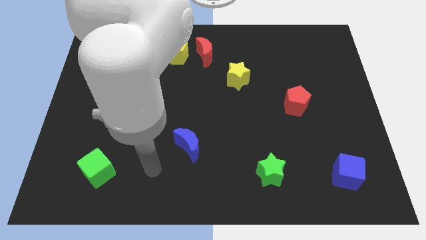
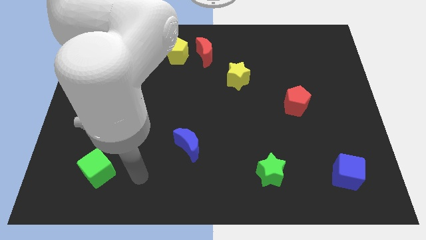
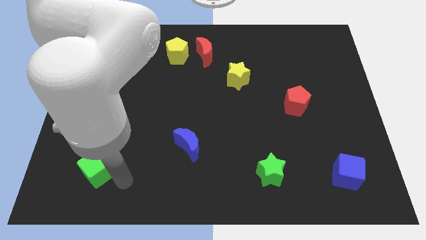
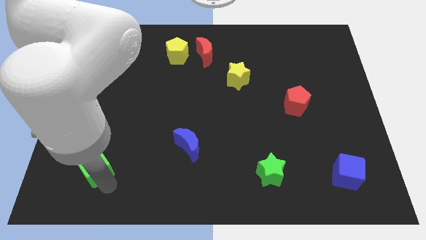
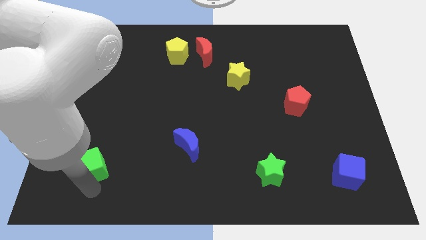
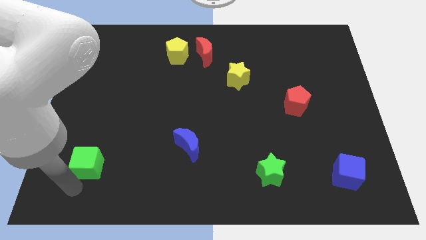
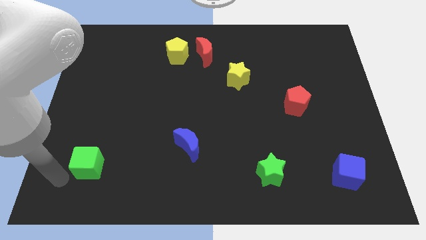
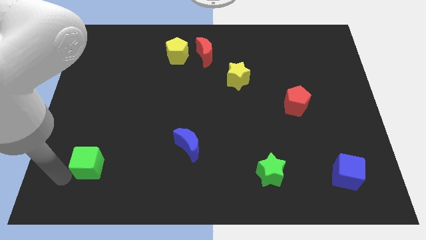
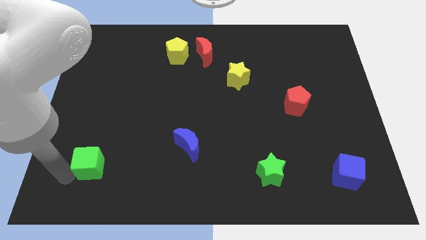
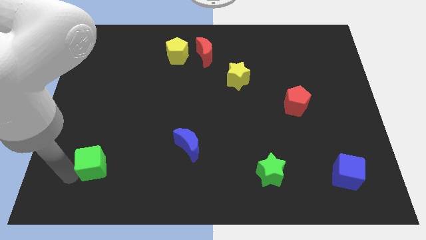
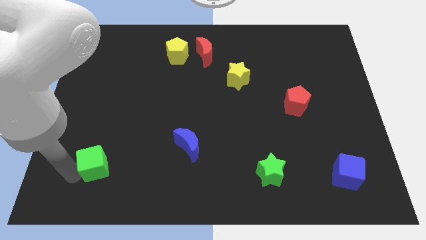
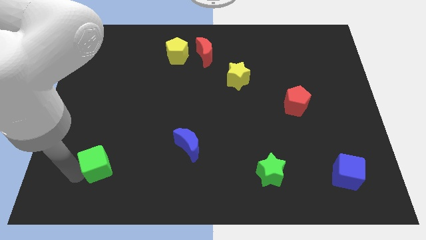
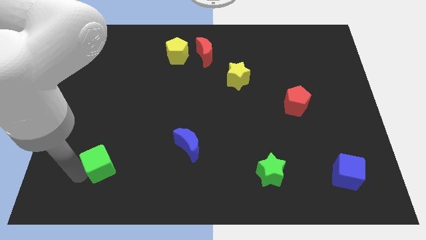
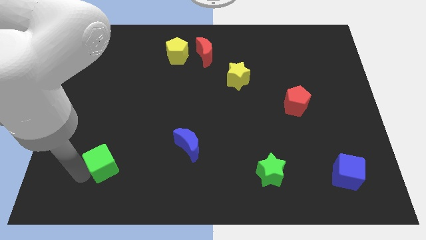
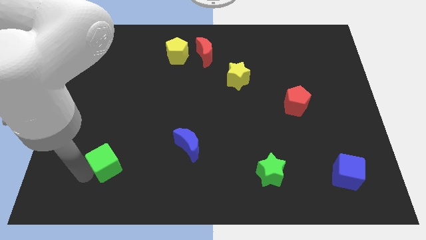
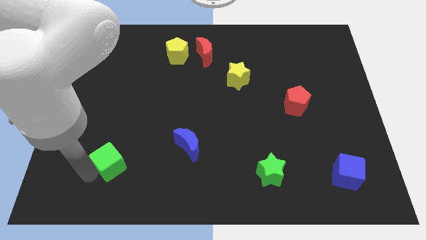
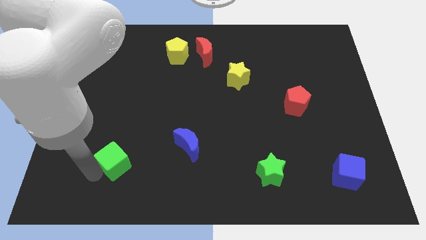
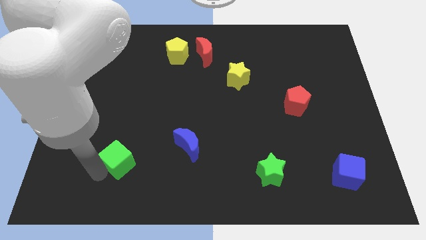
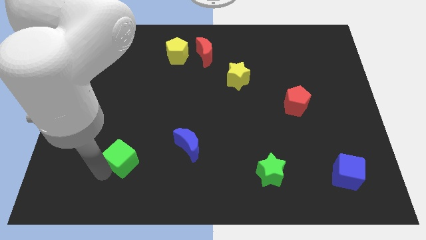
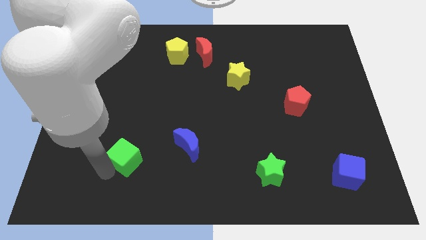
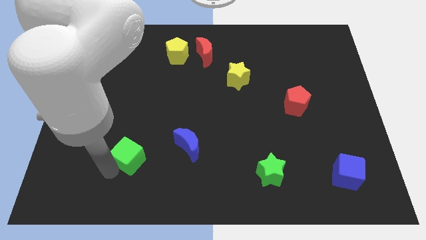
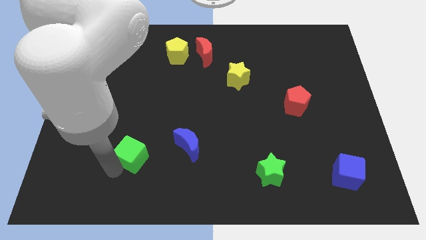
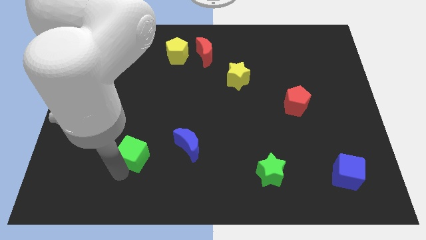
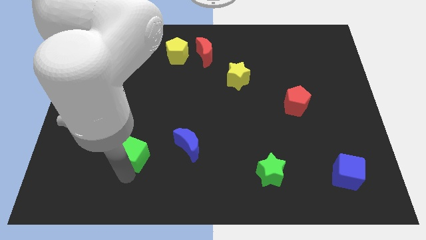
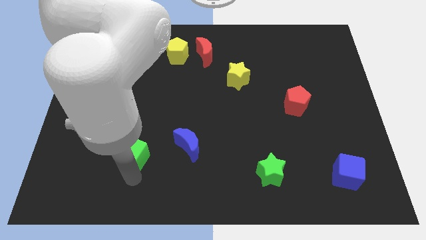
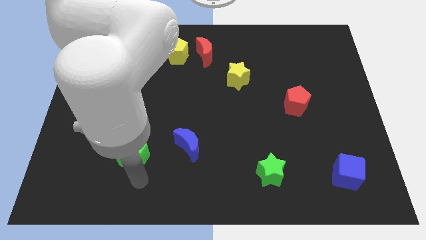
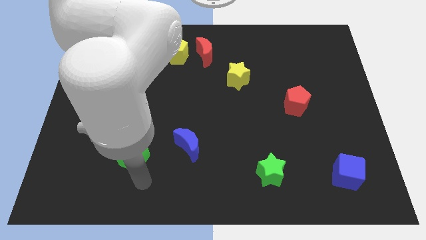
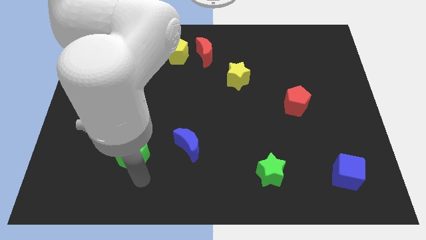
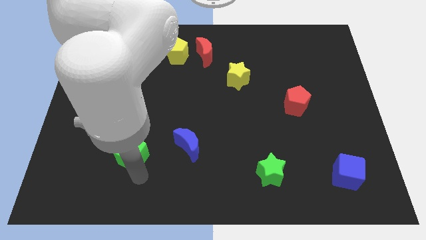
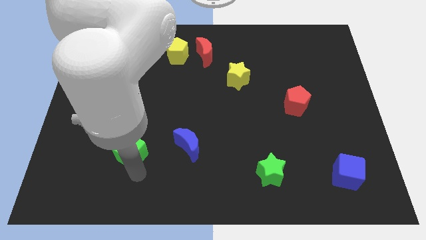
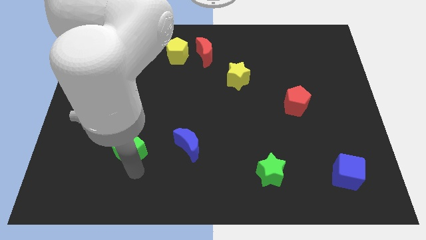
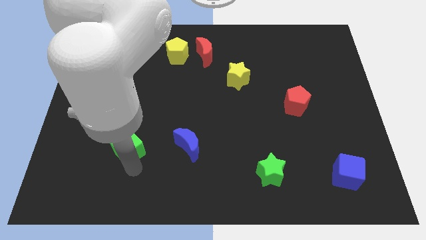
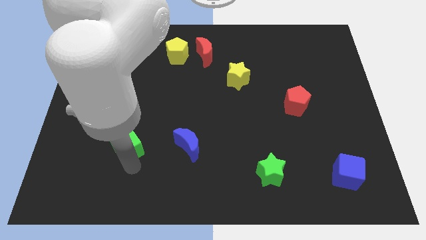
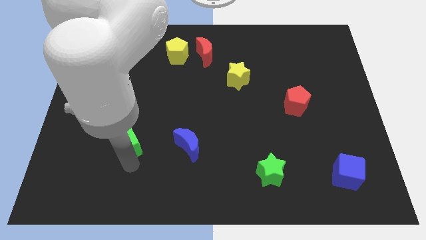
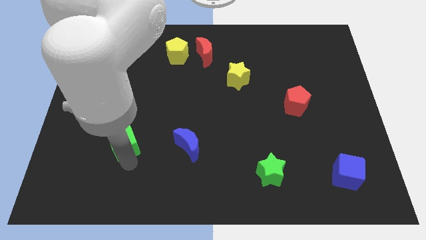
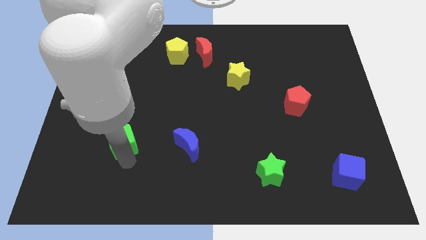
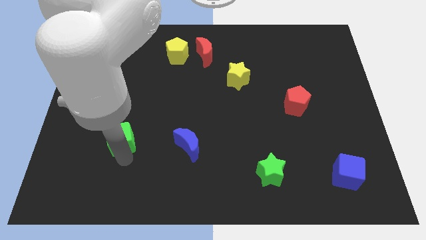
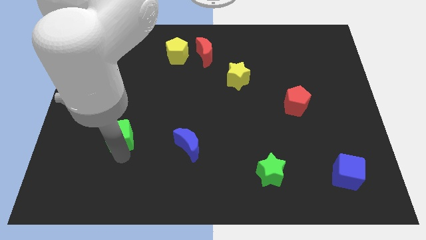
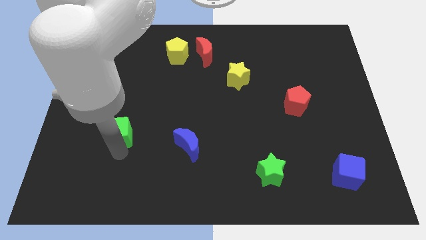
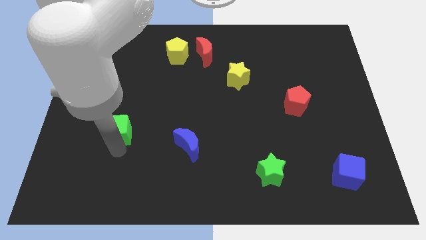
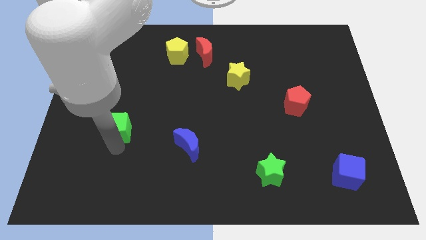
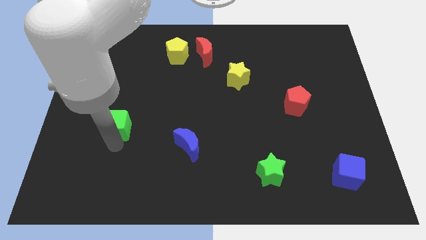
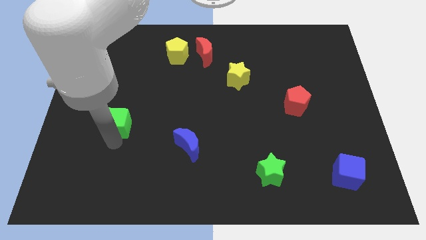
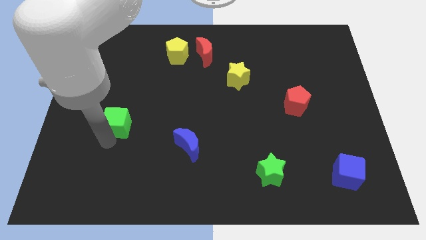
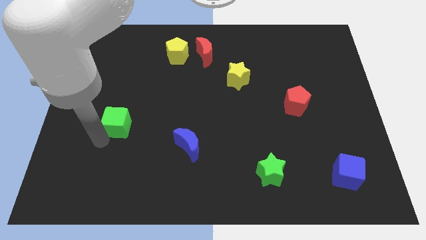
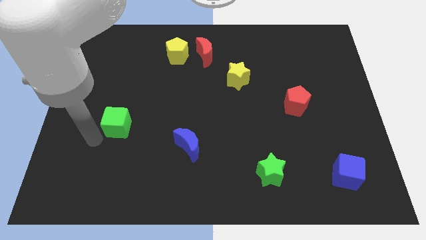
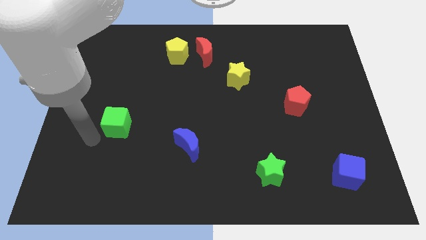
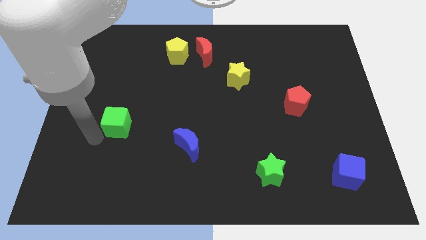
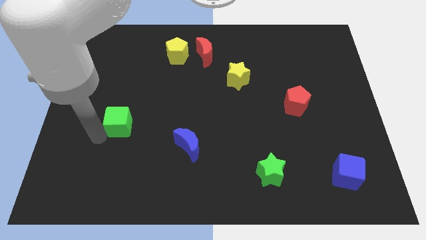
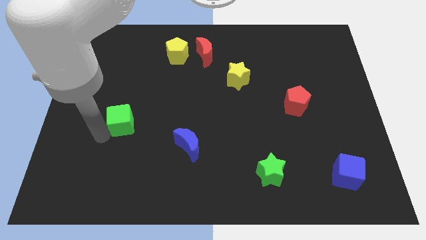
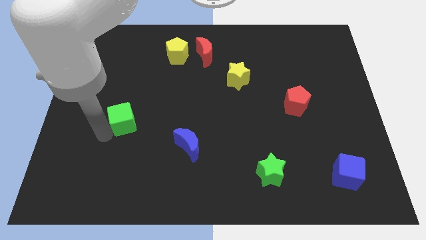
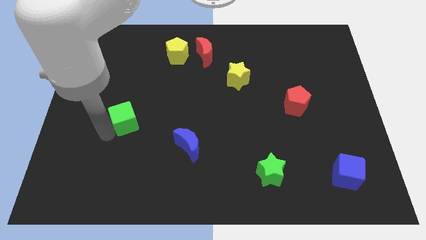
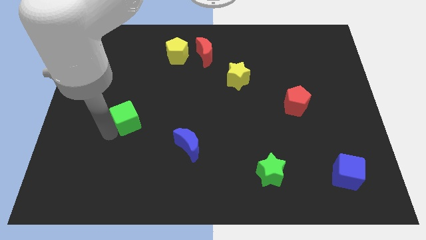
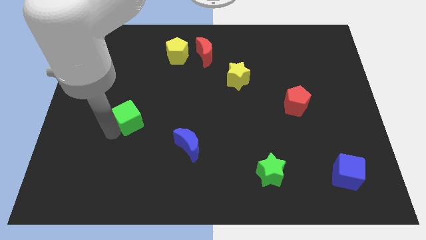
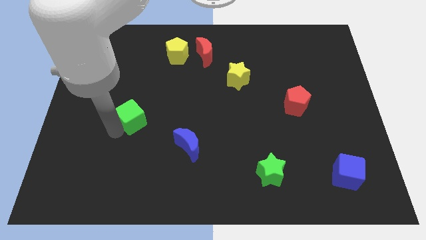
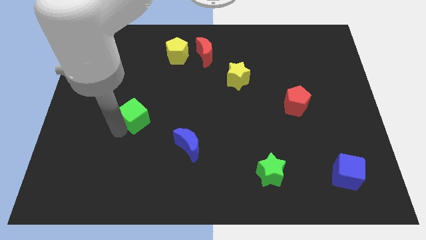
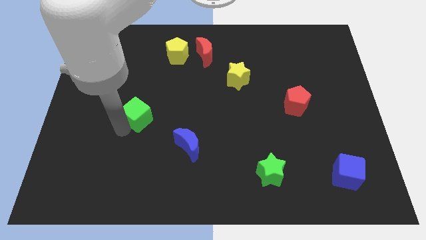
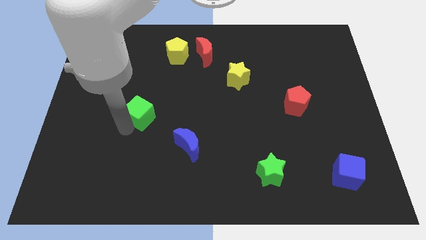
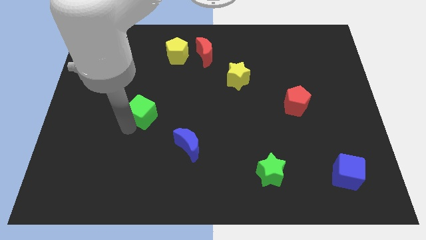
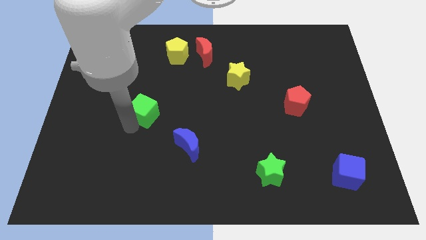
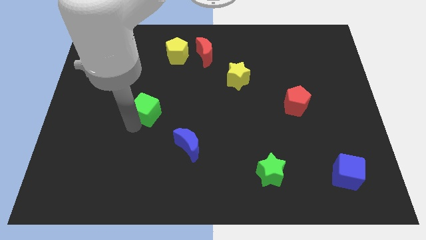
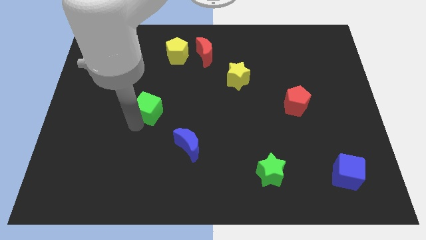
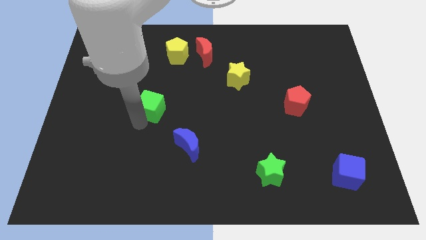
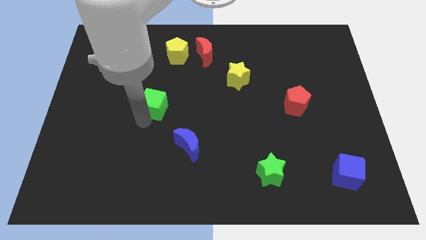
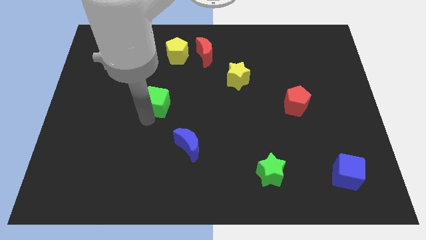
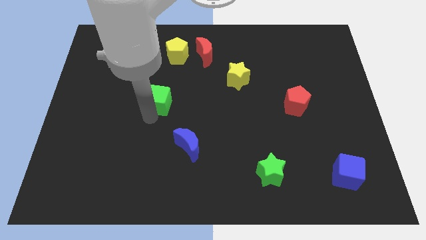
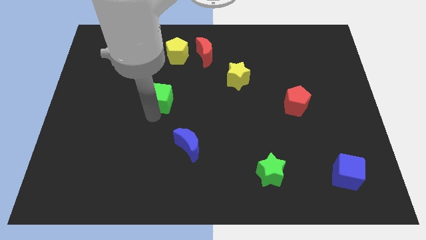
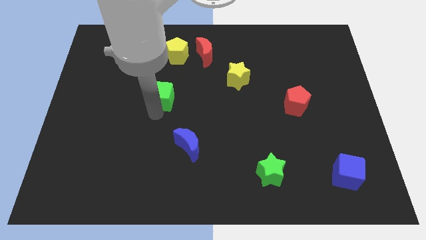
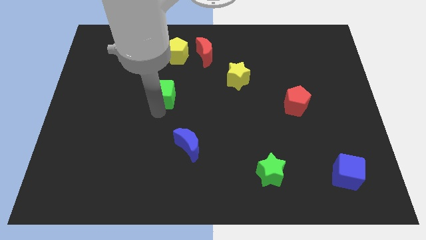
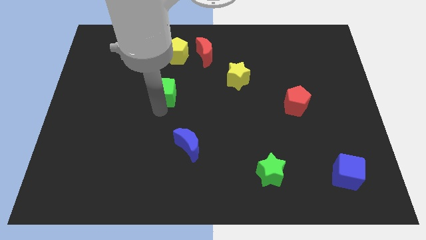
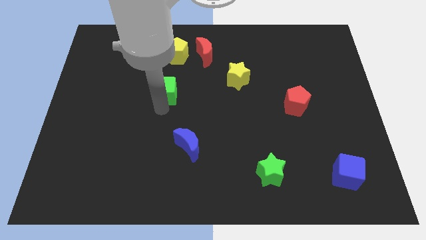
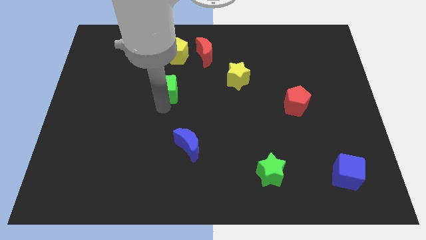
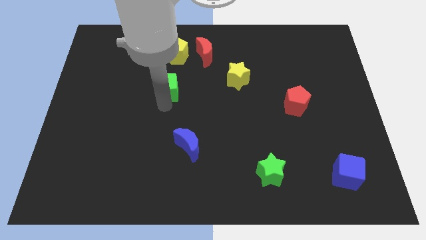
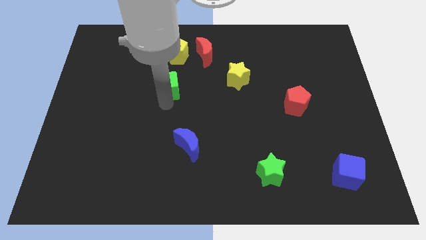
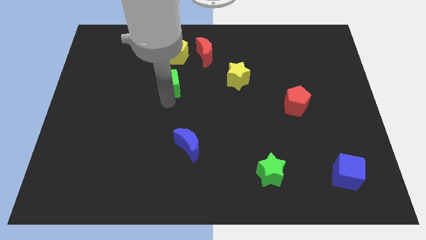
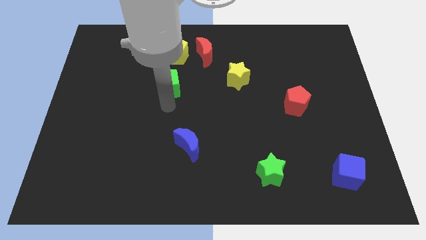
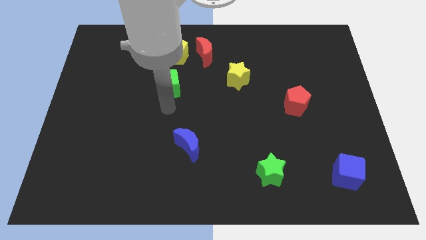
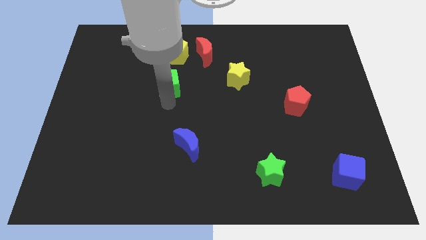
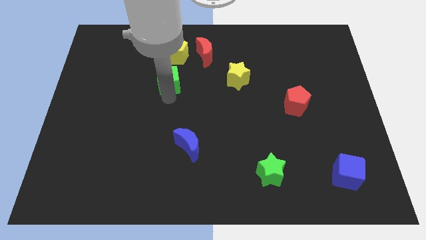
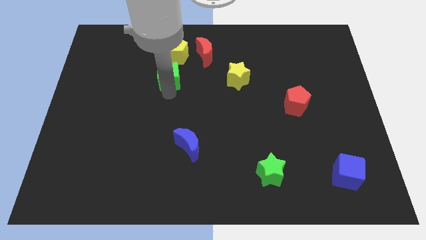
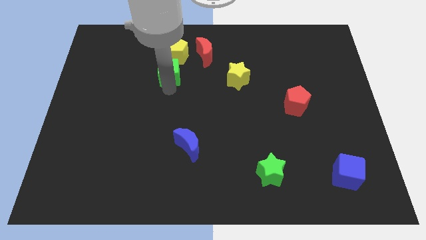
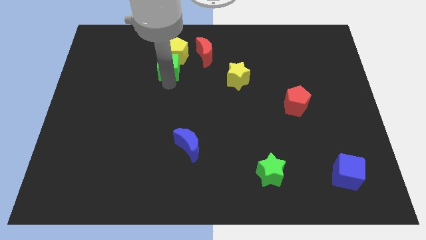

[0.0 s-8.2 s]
slide the green cube close to the yellow pentagon
